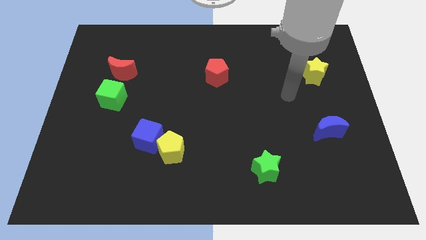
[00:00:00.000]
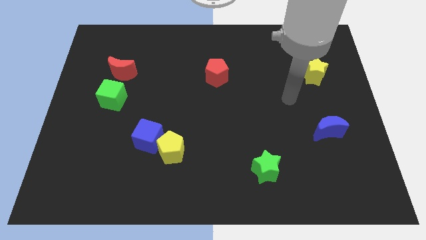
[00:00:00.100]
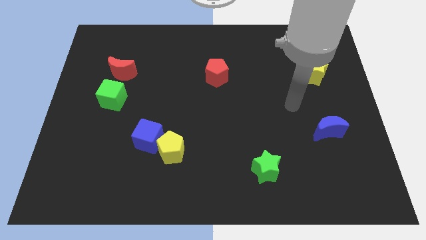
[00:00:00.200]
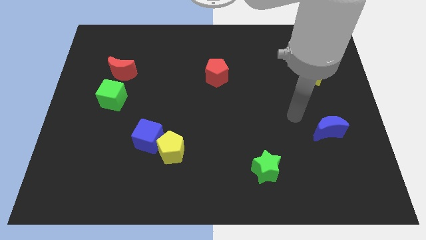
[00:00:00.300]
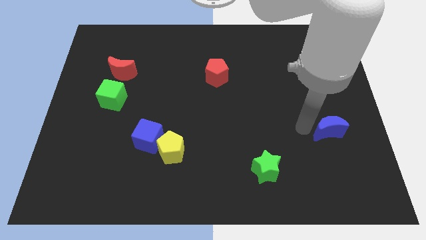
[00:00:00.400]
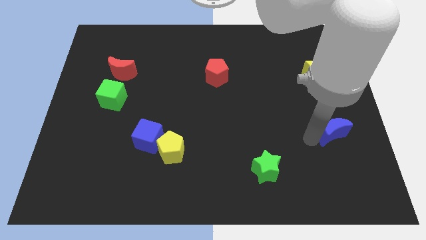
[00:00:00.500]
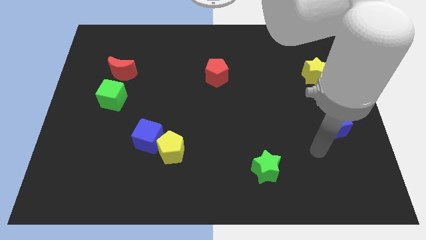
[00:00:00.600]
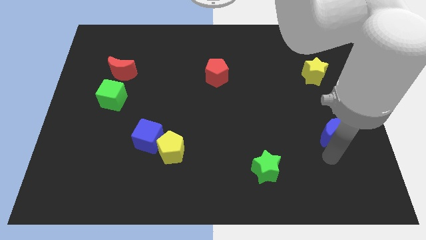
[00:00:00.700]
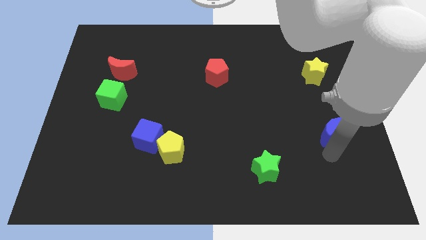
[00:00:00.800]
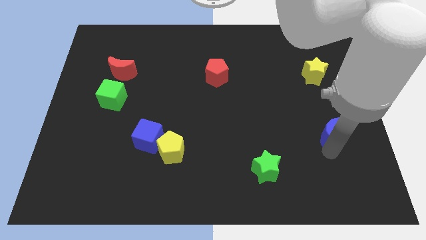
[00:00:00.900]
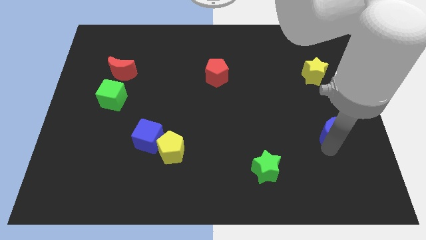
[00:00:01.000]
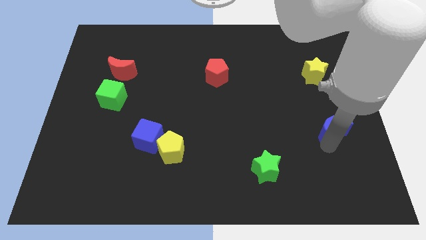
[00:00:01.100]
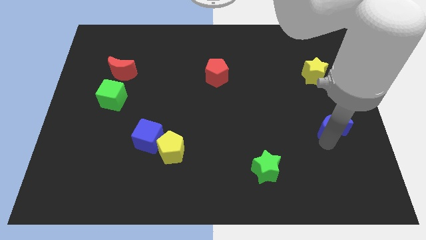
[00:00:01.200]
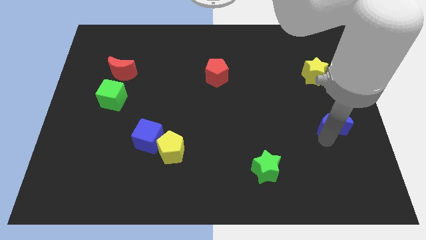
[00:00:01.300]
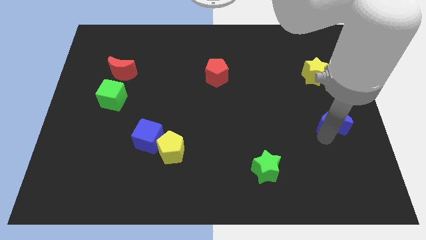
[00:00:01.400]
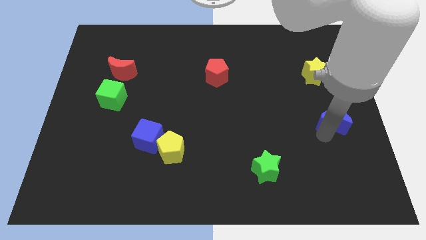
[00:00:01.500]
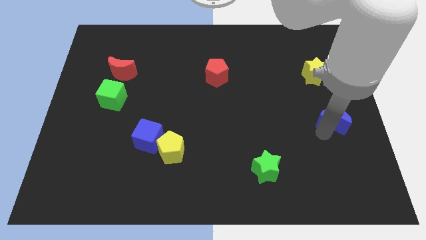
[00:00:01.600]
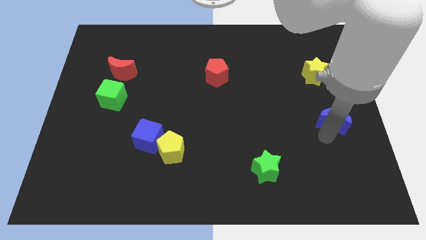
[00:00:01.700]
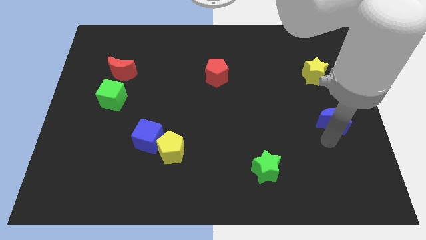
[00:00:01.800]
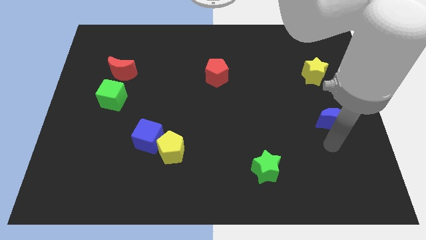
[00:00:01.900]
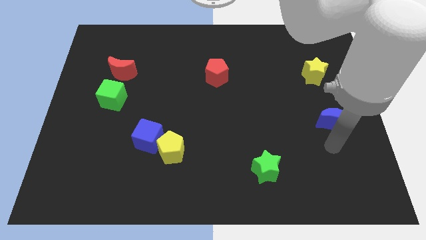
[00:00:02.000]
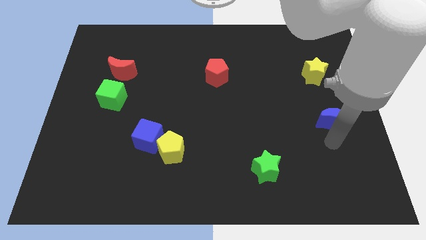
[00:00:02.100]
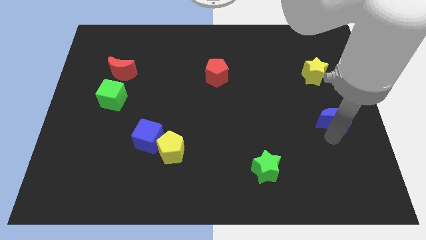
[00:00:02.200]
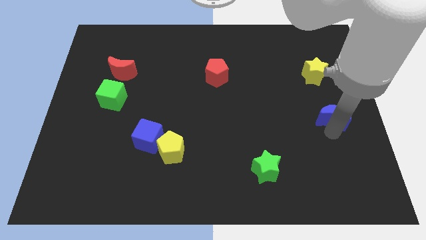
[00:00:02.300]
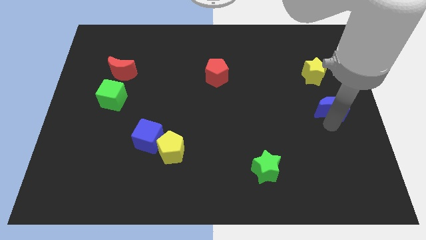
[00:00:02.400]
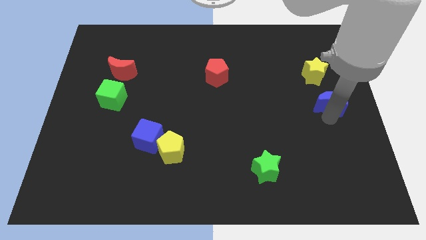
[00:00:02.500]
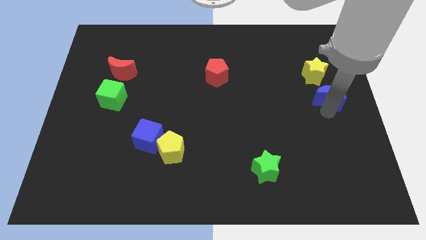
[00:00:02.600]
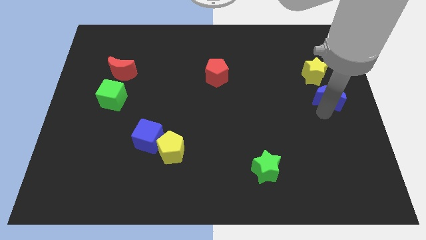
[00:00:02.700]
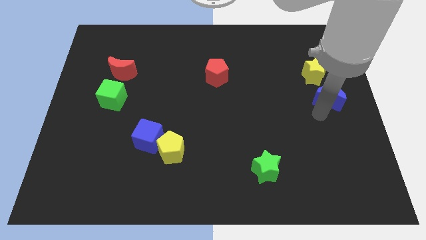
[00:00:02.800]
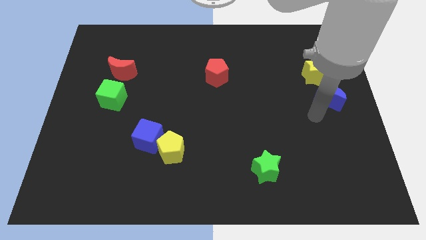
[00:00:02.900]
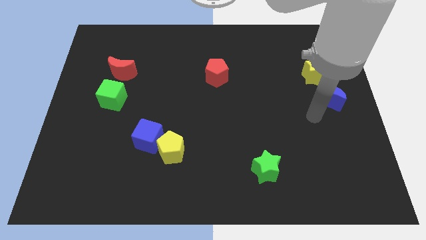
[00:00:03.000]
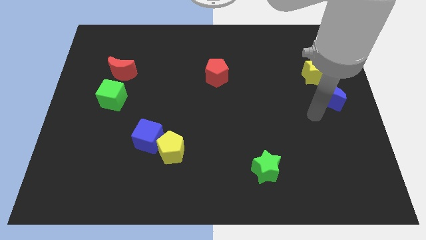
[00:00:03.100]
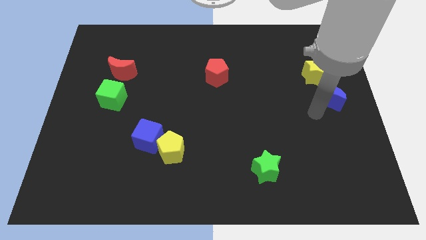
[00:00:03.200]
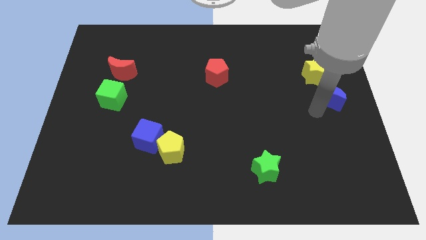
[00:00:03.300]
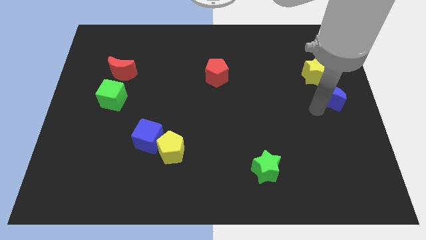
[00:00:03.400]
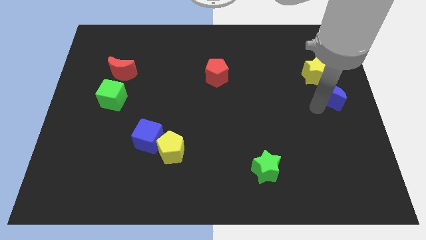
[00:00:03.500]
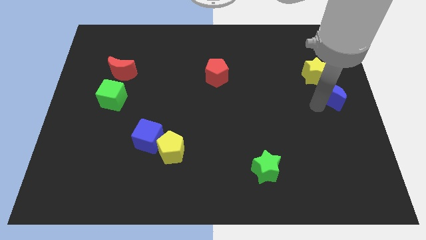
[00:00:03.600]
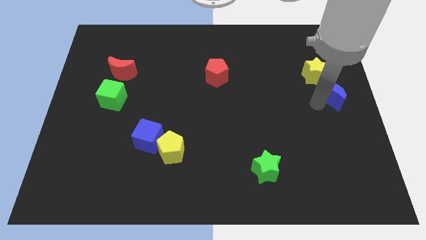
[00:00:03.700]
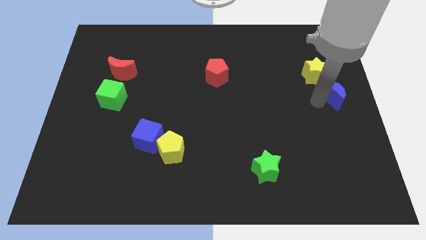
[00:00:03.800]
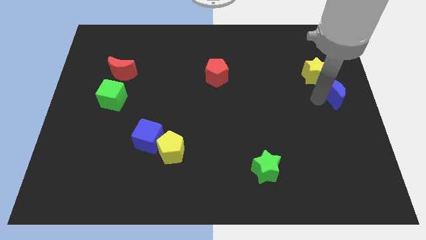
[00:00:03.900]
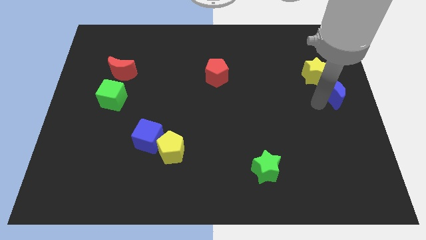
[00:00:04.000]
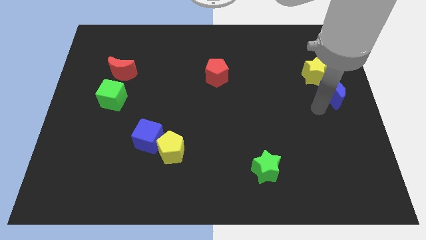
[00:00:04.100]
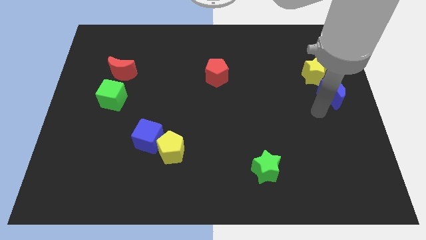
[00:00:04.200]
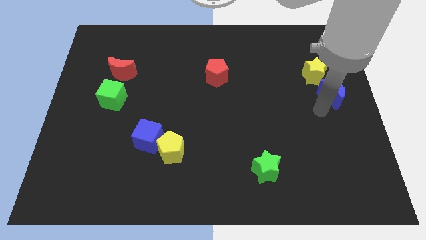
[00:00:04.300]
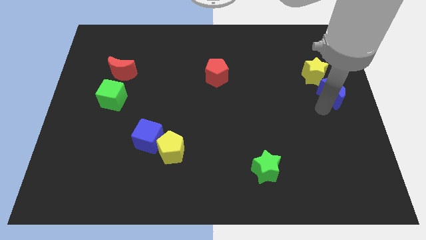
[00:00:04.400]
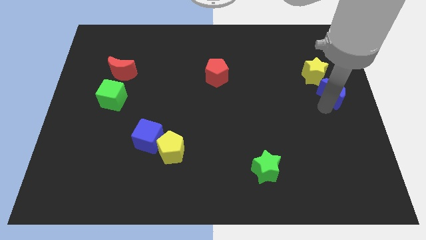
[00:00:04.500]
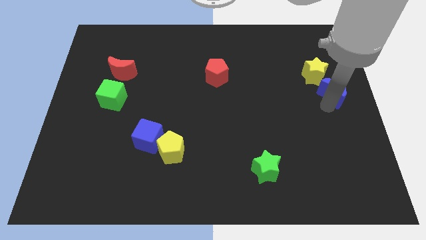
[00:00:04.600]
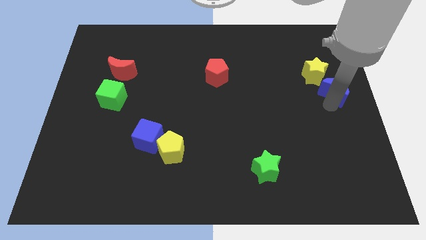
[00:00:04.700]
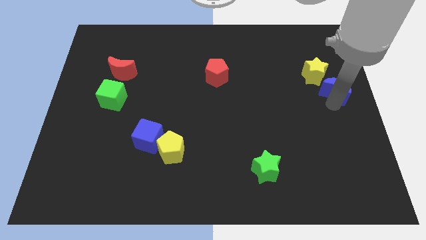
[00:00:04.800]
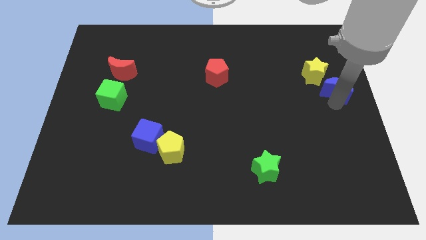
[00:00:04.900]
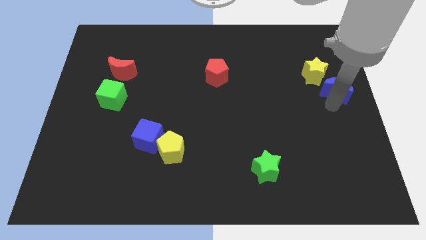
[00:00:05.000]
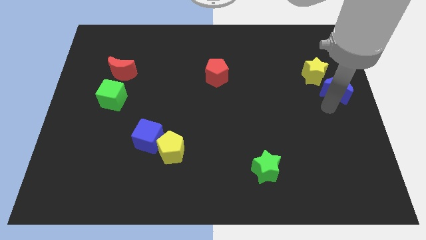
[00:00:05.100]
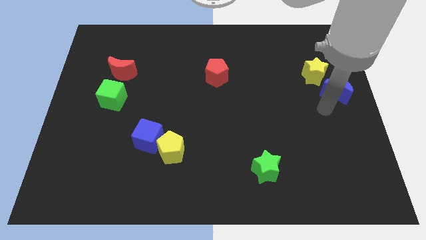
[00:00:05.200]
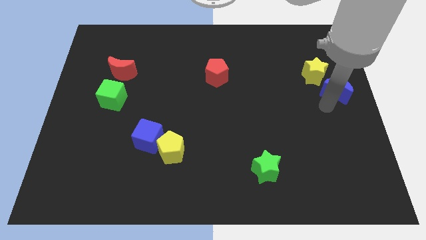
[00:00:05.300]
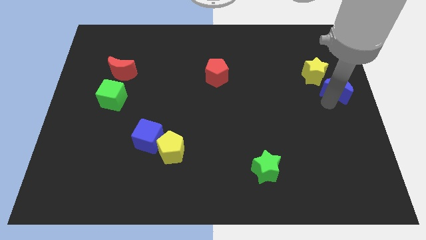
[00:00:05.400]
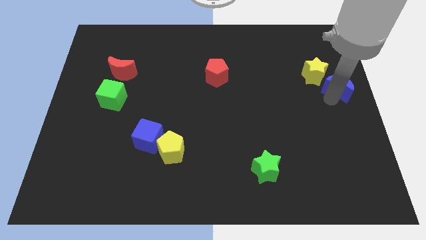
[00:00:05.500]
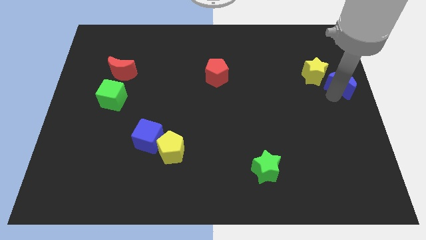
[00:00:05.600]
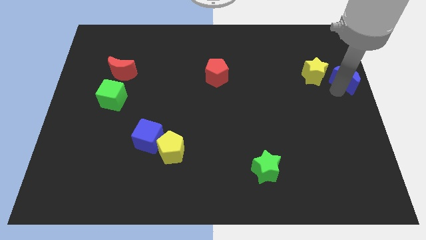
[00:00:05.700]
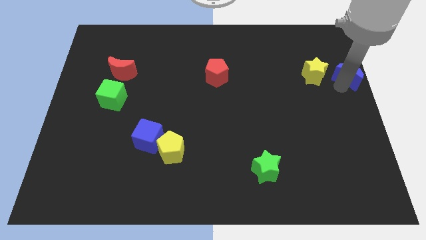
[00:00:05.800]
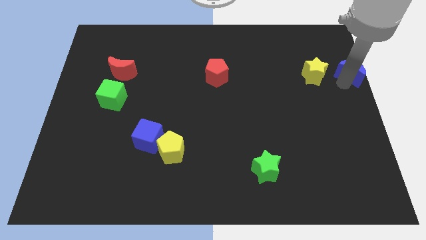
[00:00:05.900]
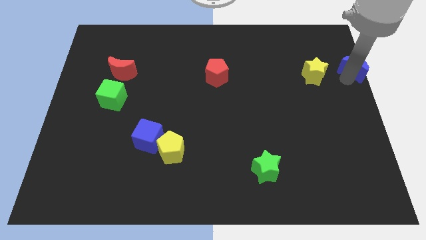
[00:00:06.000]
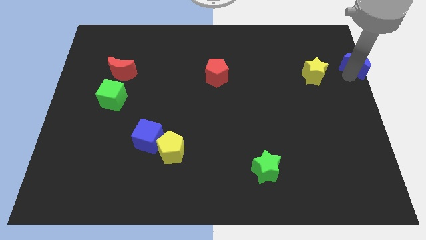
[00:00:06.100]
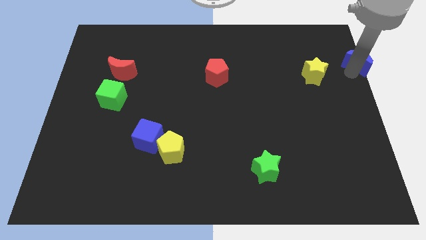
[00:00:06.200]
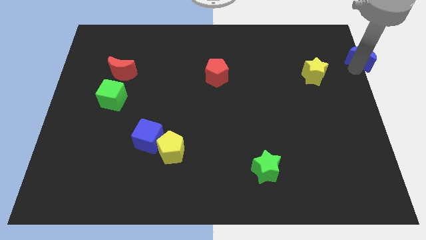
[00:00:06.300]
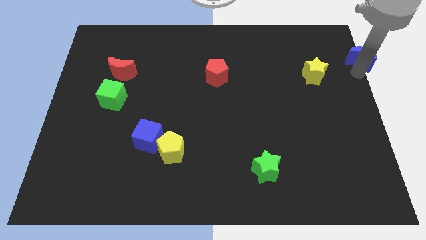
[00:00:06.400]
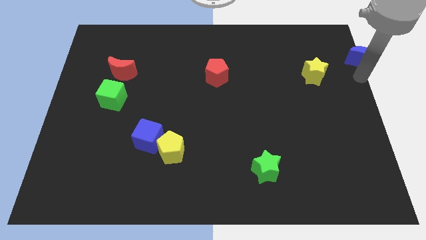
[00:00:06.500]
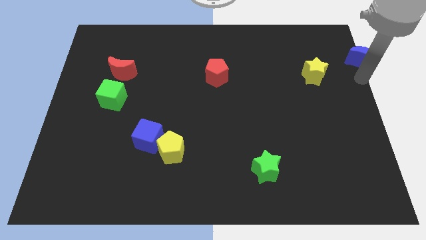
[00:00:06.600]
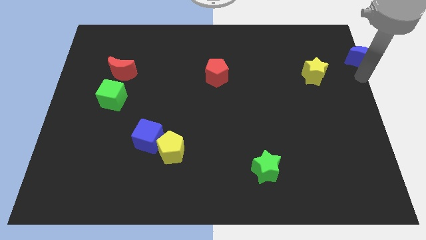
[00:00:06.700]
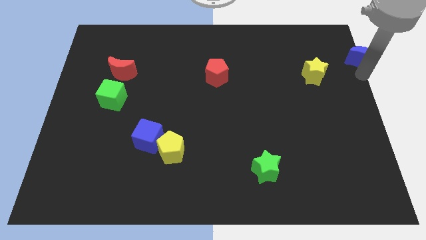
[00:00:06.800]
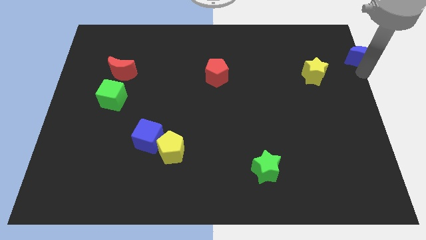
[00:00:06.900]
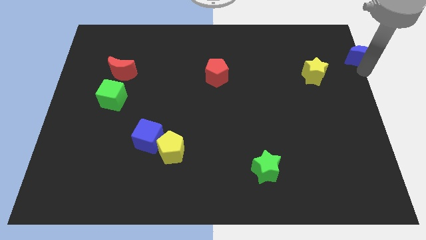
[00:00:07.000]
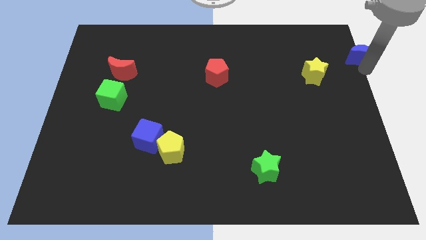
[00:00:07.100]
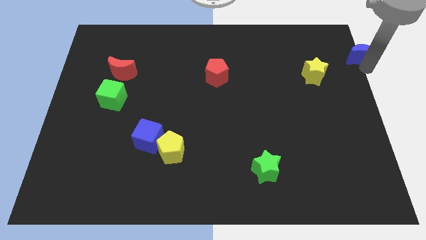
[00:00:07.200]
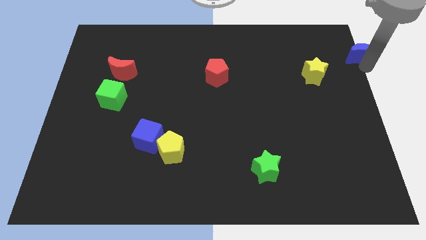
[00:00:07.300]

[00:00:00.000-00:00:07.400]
put the blue moon to the top right of the board
